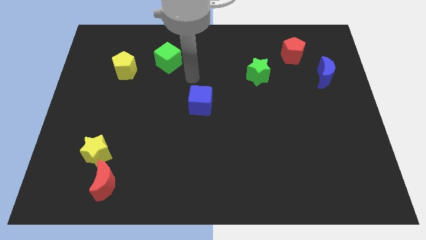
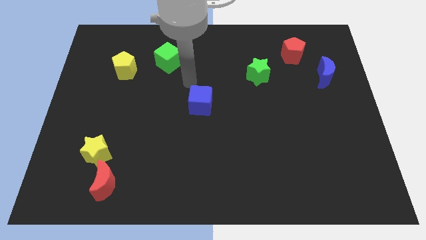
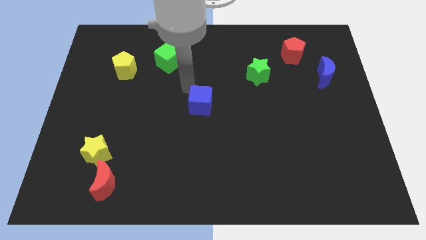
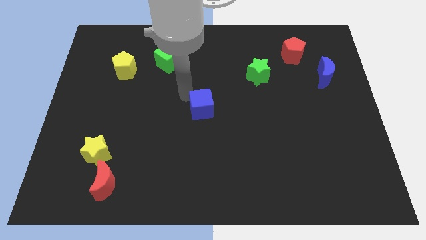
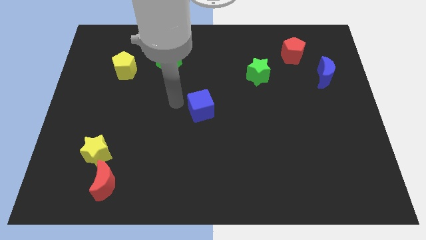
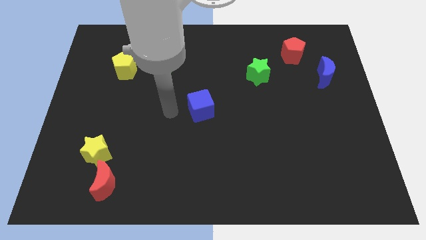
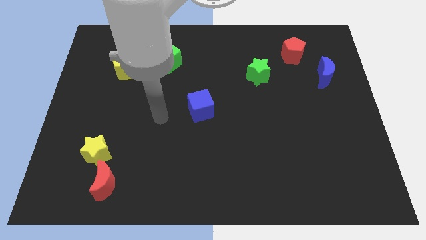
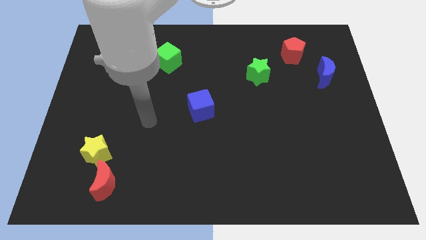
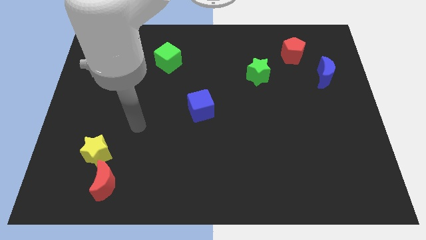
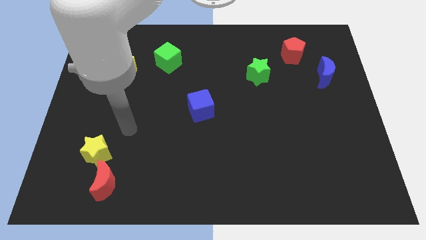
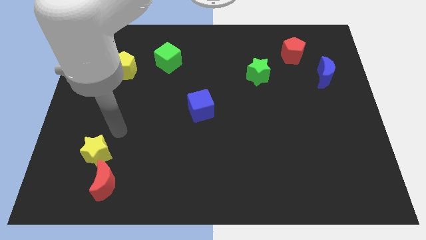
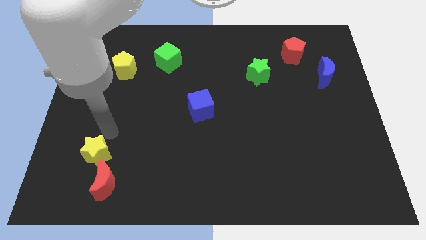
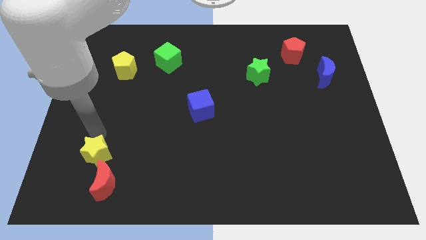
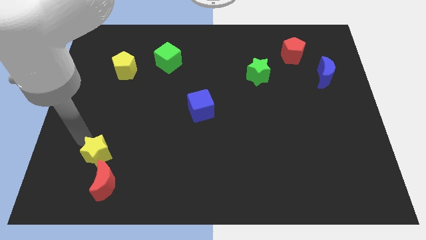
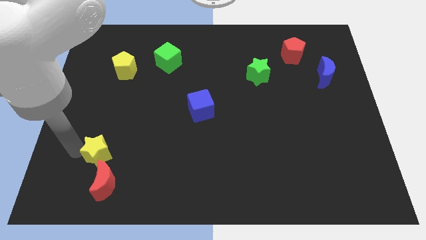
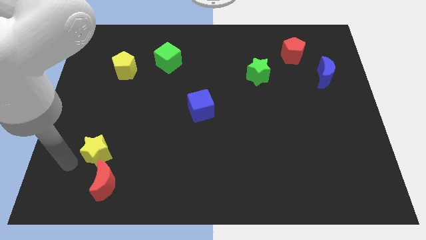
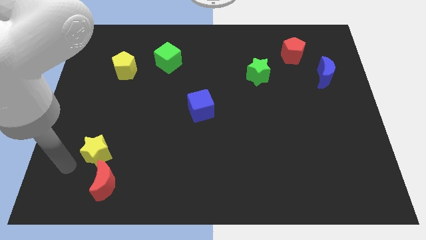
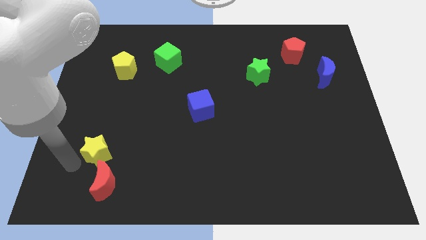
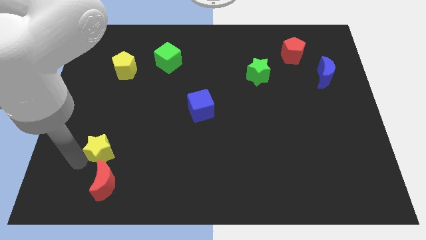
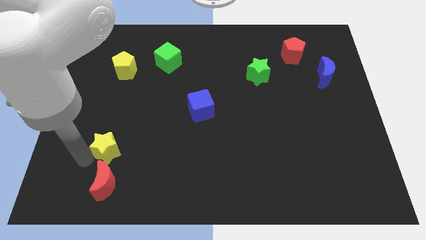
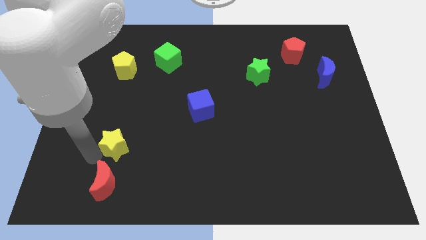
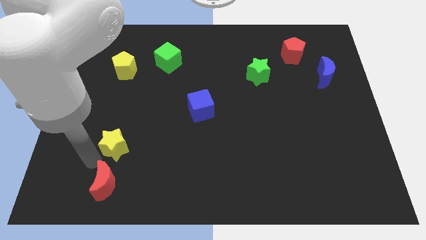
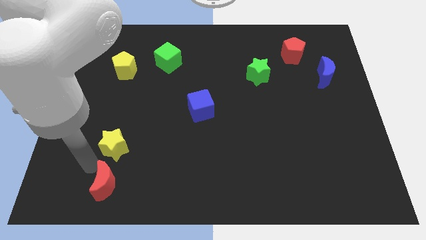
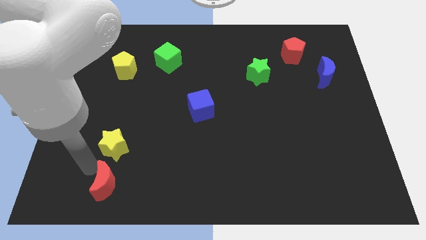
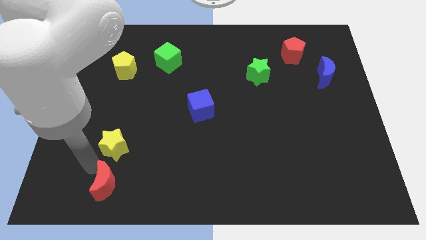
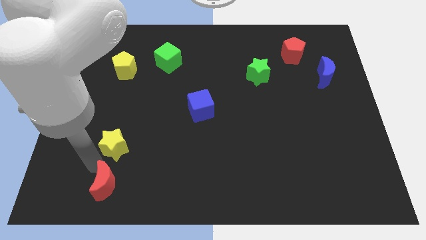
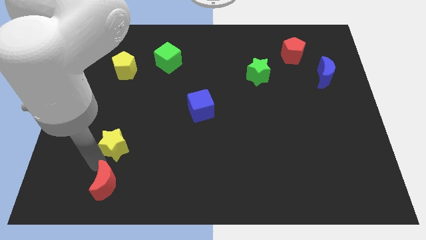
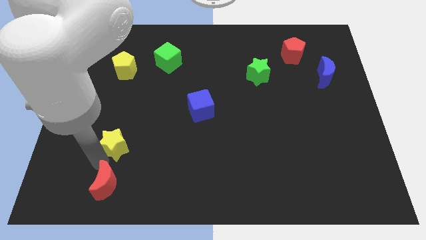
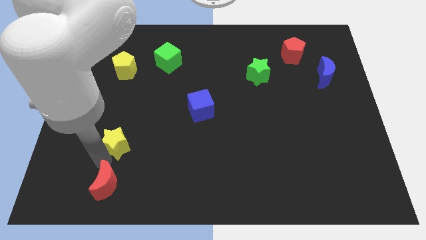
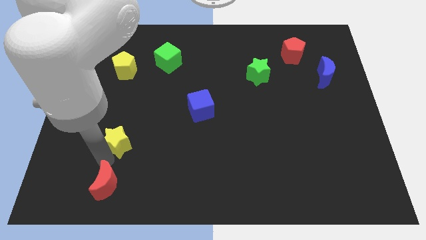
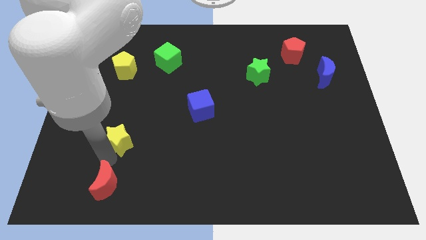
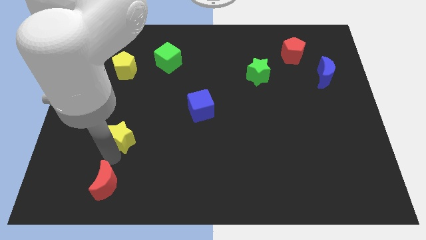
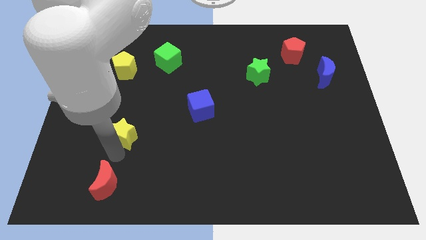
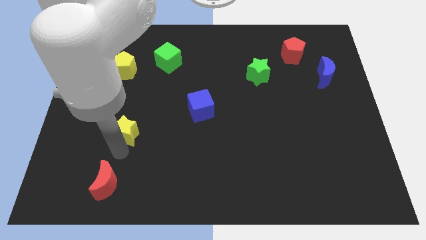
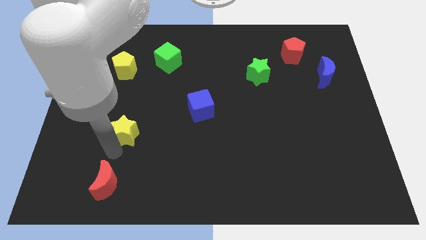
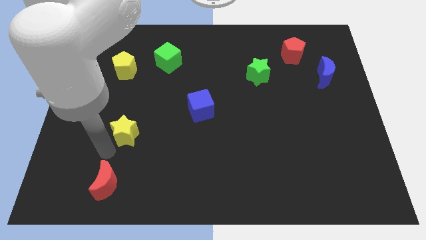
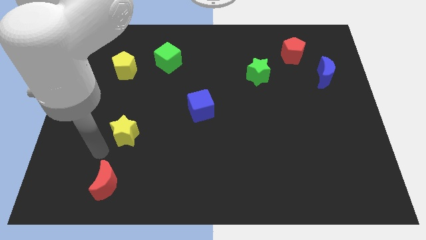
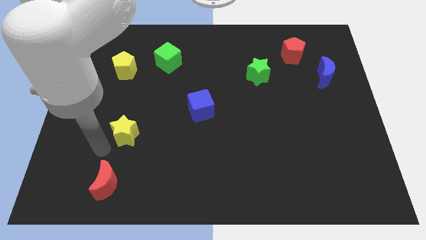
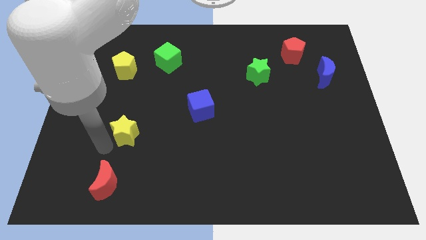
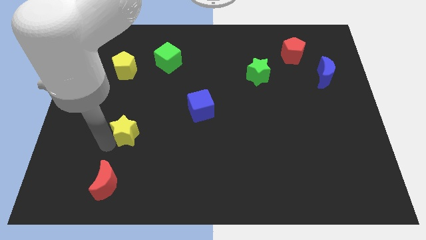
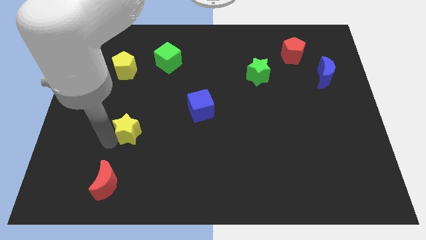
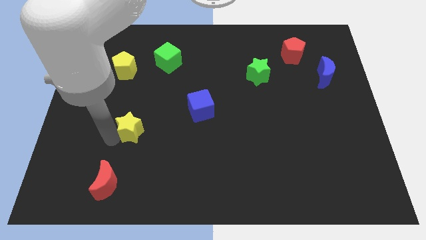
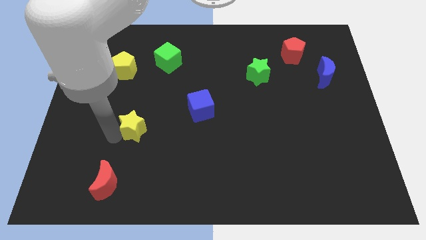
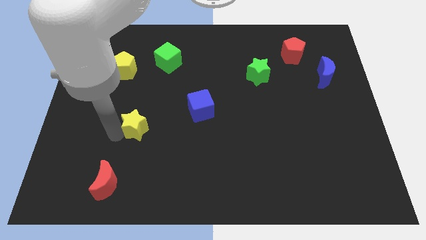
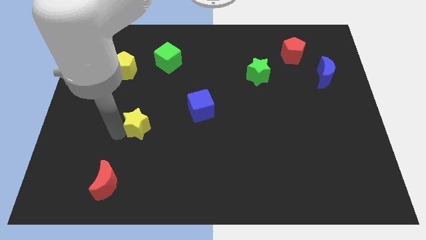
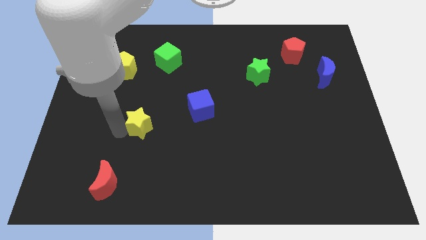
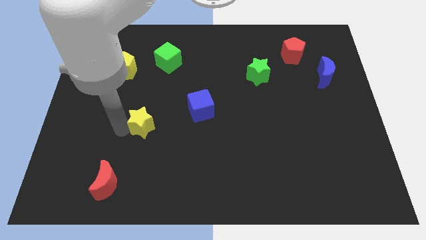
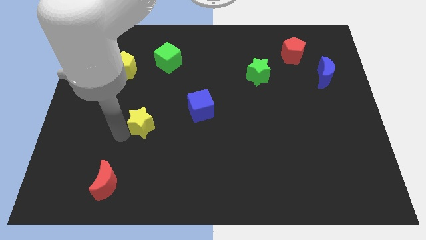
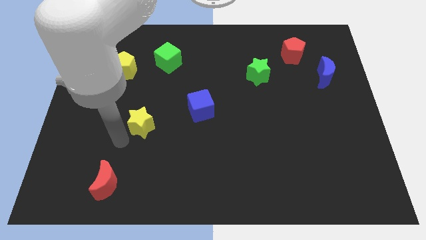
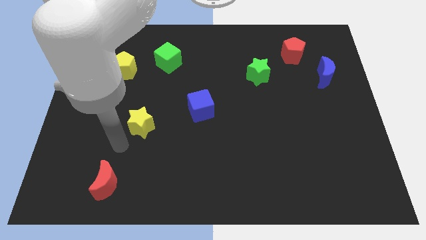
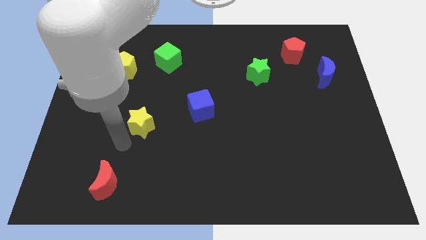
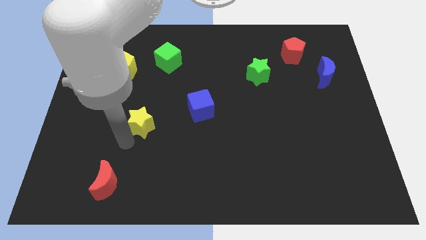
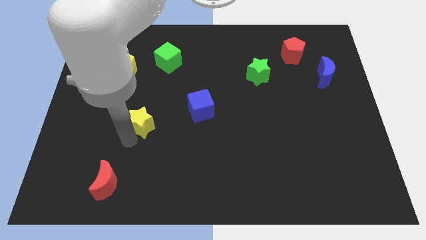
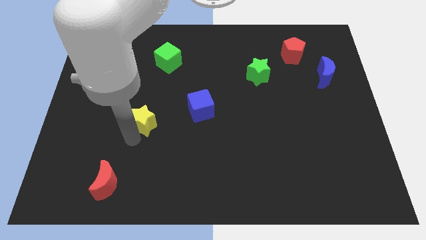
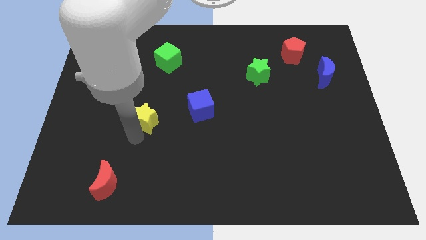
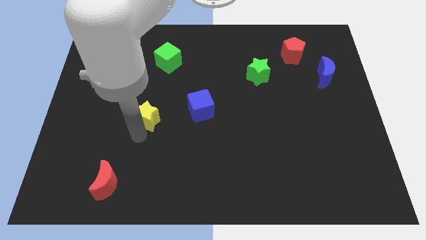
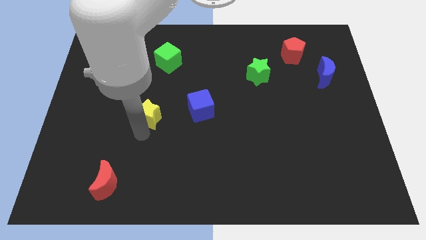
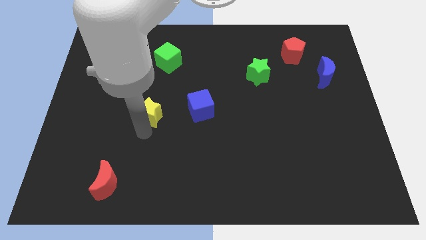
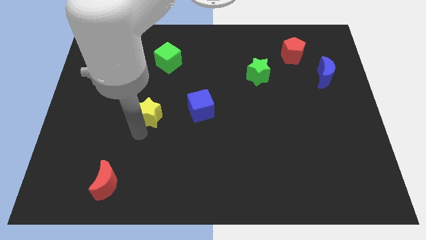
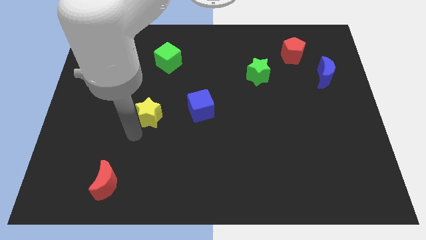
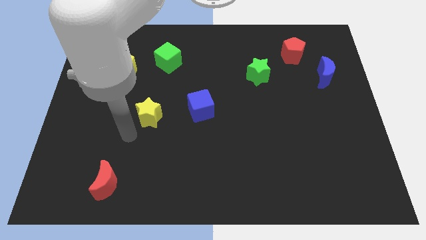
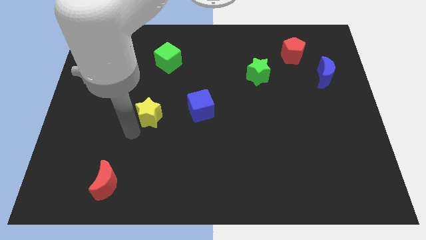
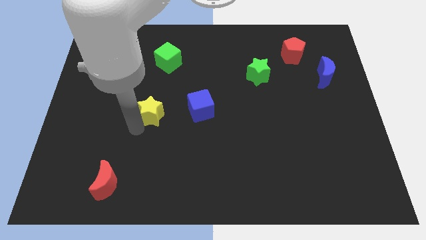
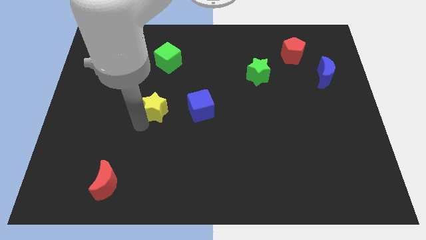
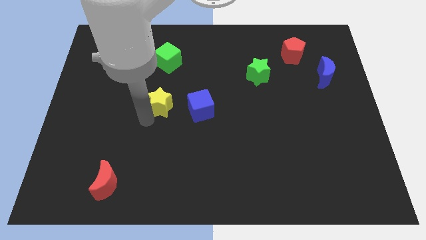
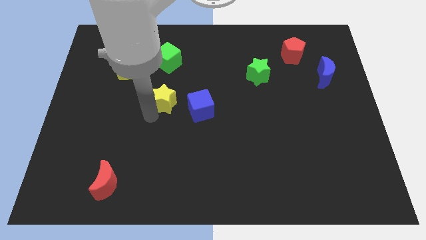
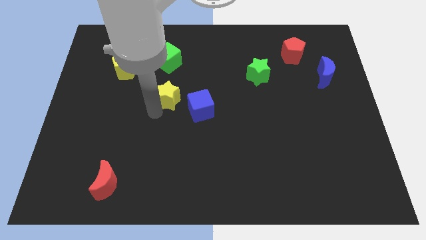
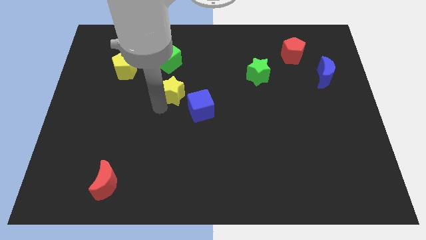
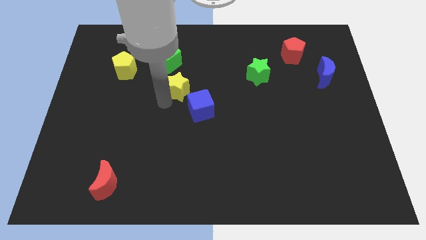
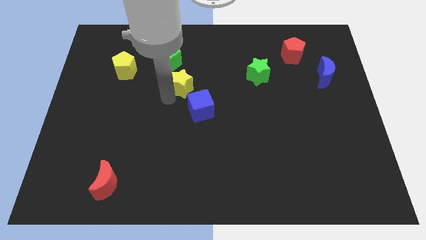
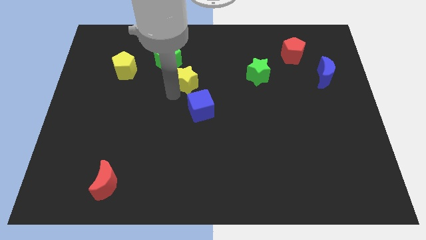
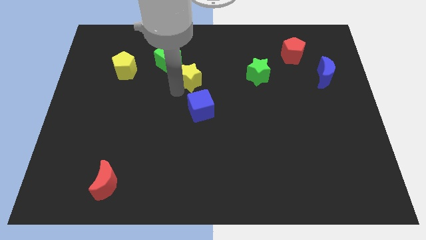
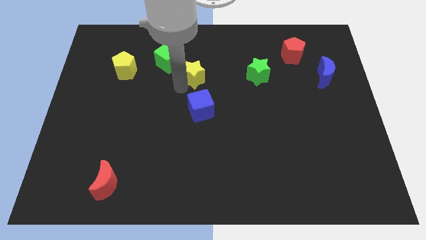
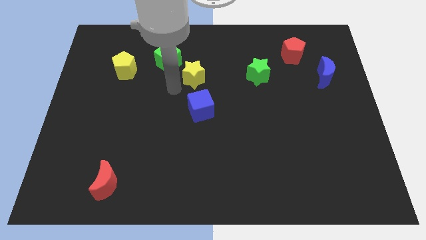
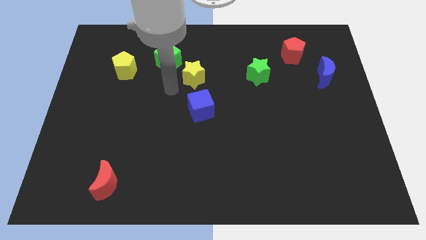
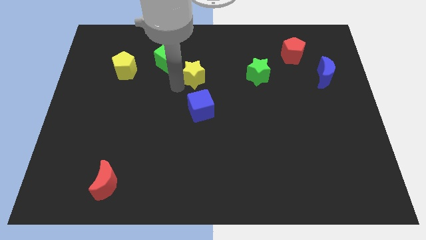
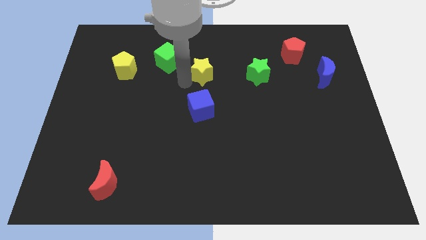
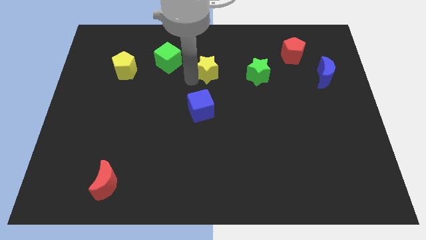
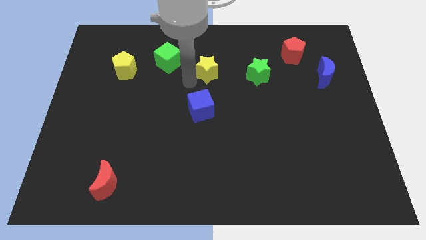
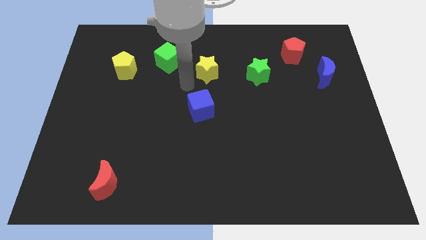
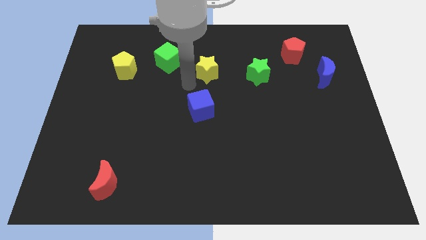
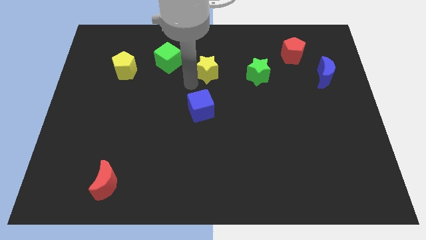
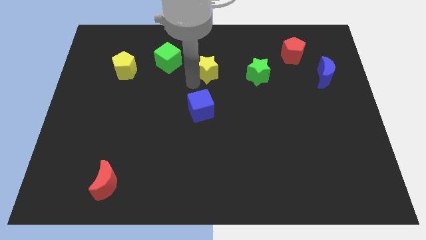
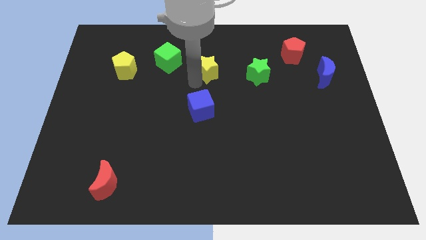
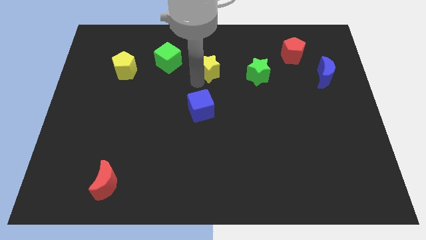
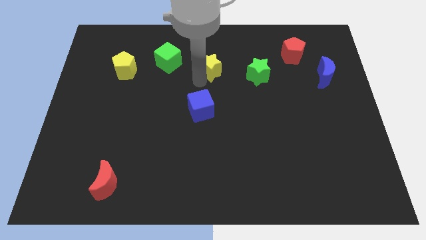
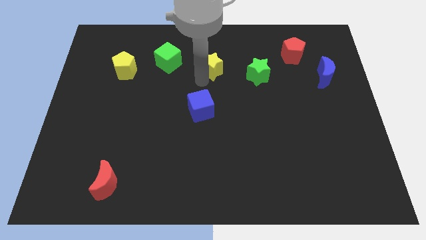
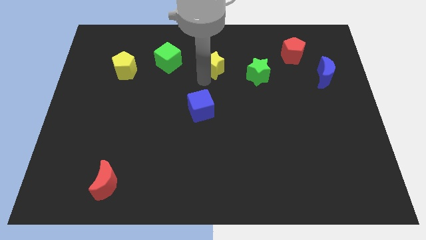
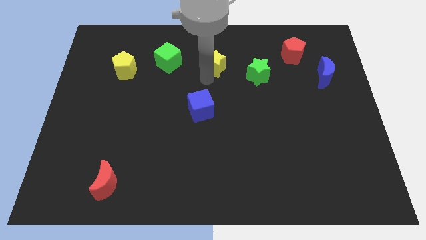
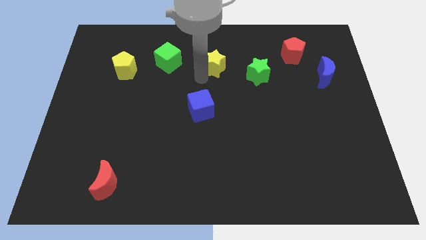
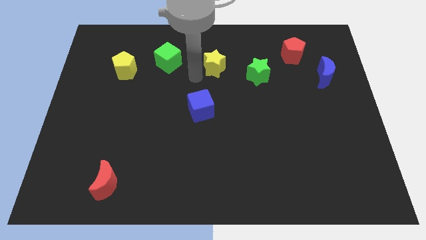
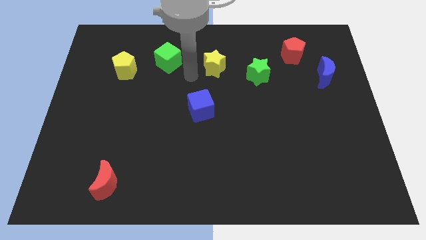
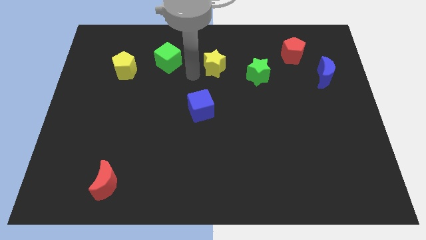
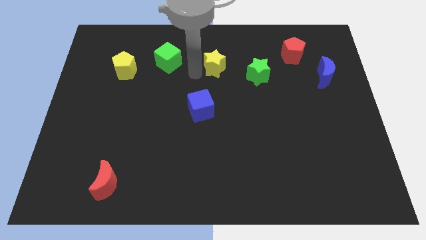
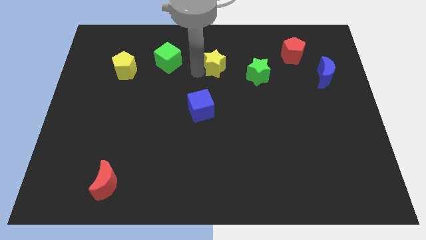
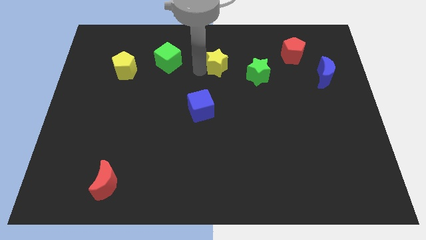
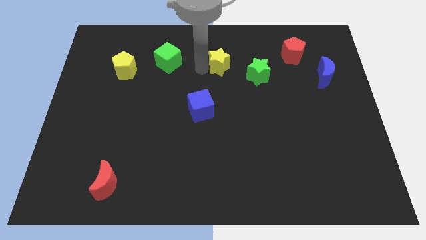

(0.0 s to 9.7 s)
push the yellow star to the top left side of the green star
